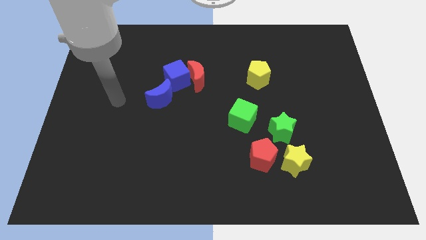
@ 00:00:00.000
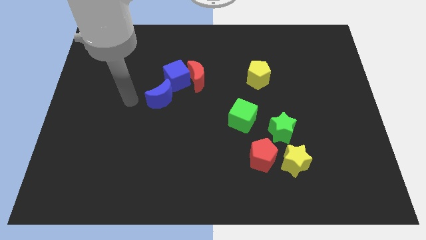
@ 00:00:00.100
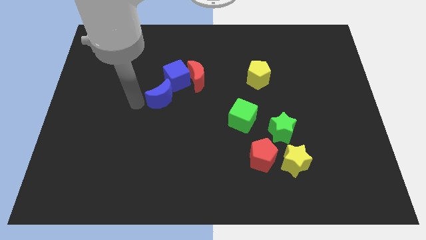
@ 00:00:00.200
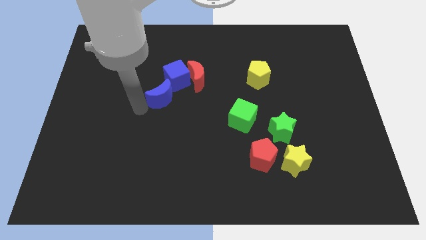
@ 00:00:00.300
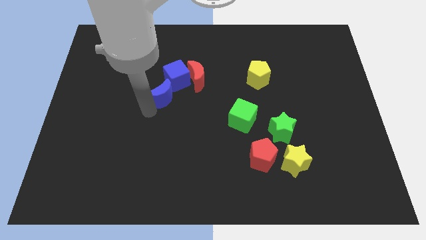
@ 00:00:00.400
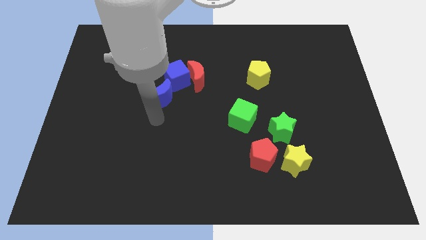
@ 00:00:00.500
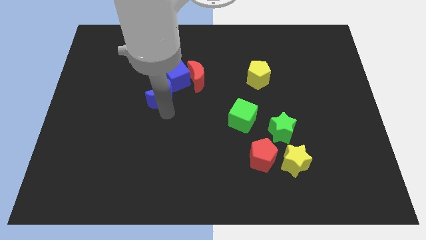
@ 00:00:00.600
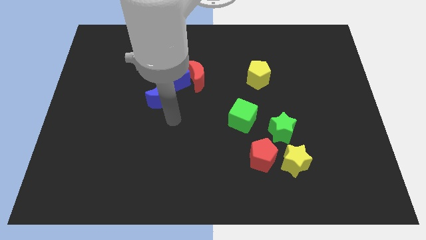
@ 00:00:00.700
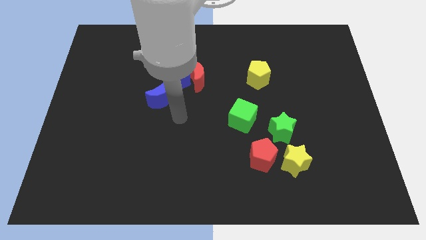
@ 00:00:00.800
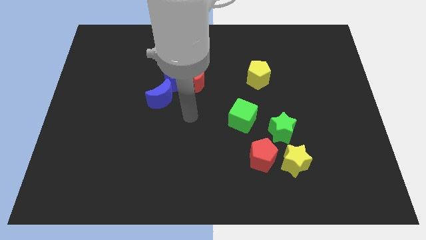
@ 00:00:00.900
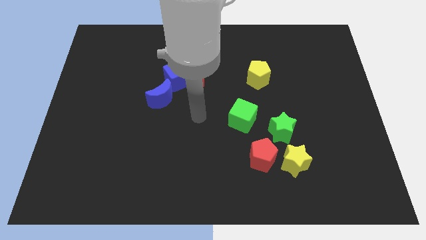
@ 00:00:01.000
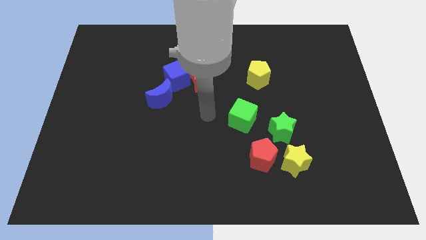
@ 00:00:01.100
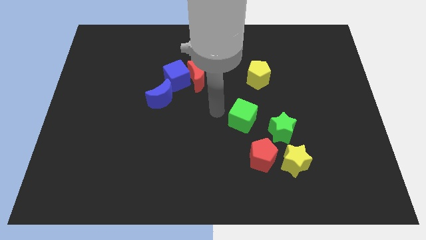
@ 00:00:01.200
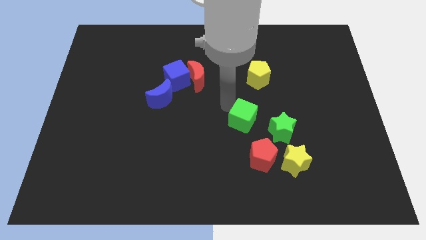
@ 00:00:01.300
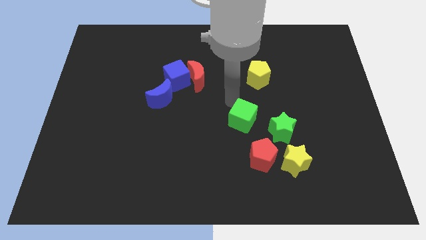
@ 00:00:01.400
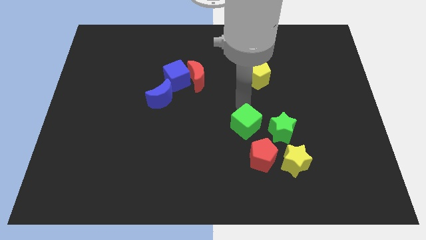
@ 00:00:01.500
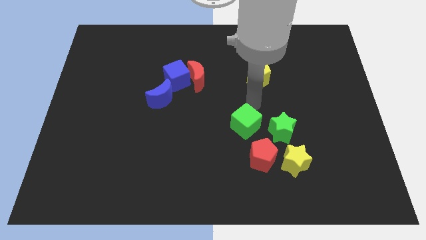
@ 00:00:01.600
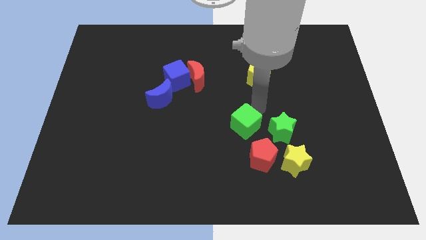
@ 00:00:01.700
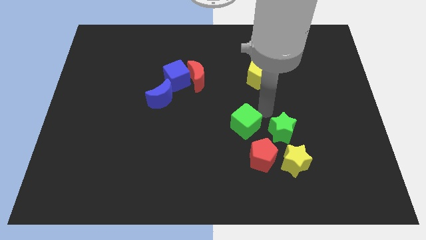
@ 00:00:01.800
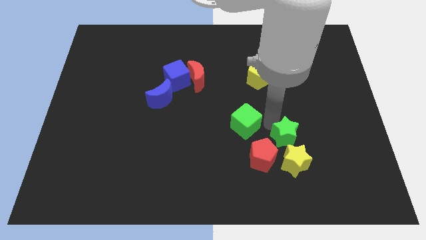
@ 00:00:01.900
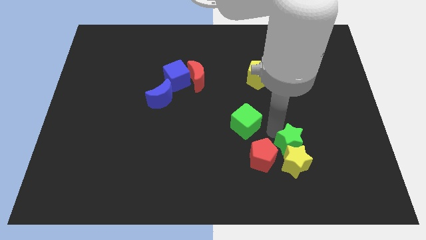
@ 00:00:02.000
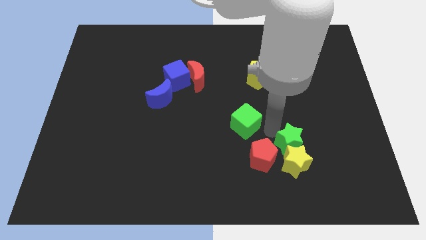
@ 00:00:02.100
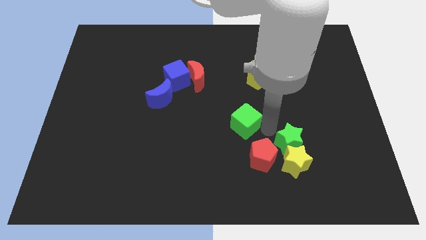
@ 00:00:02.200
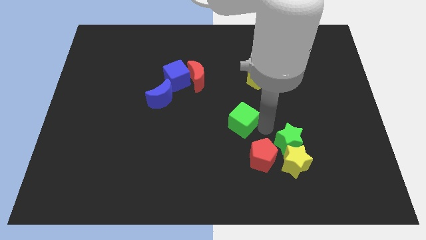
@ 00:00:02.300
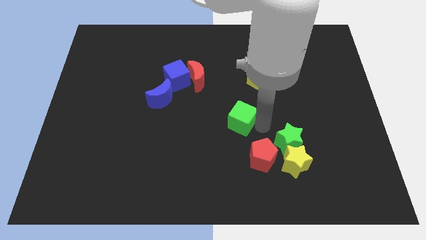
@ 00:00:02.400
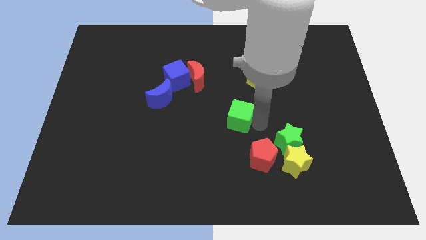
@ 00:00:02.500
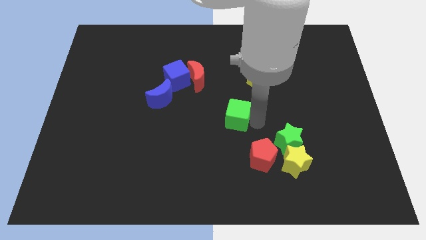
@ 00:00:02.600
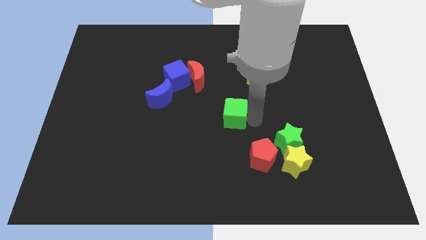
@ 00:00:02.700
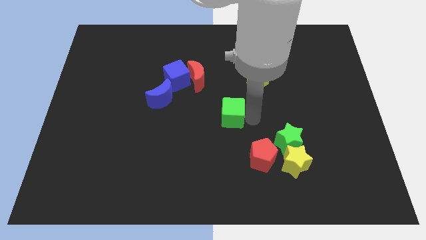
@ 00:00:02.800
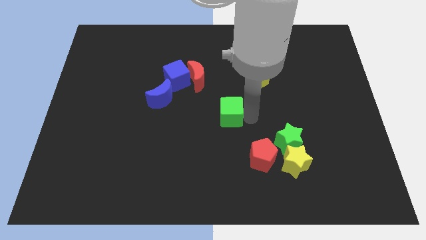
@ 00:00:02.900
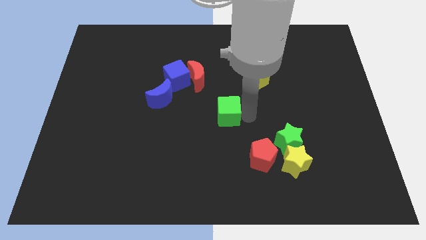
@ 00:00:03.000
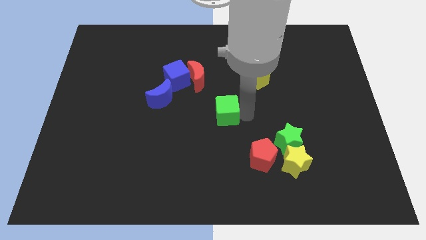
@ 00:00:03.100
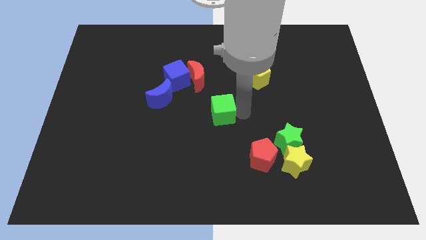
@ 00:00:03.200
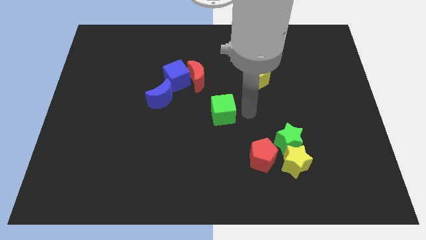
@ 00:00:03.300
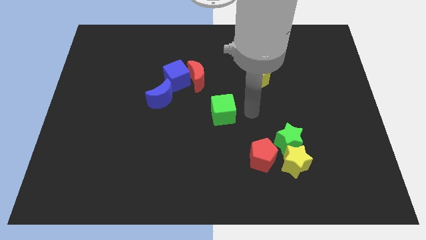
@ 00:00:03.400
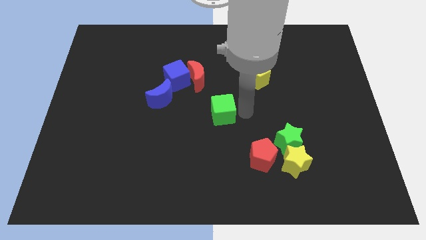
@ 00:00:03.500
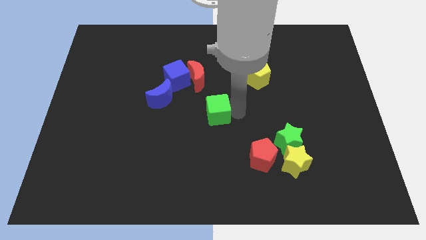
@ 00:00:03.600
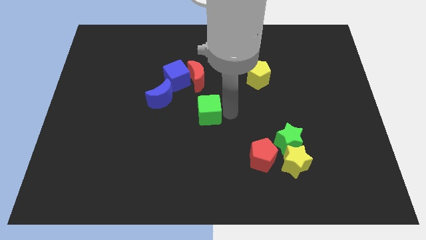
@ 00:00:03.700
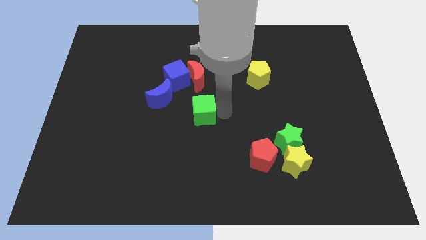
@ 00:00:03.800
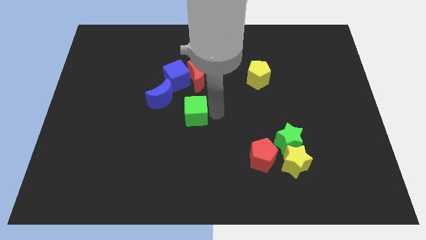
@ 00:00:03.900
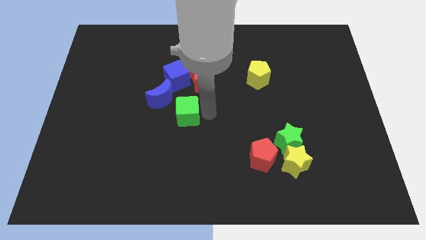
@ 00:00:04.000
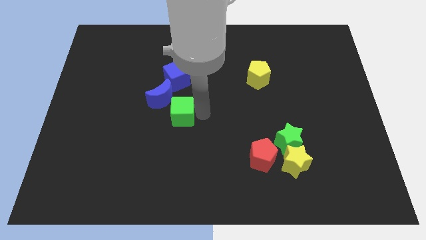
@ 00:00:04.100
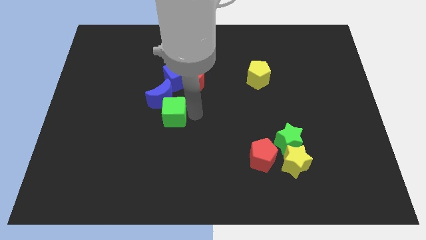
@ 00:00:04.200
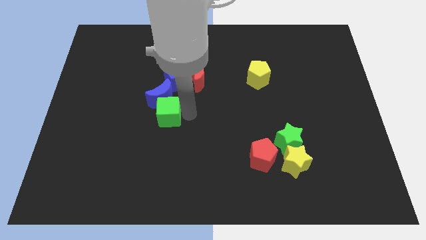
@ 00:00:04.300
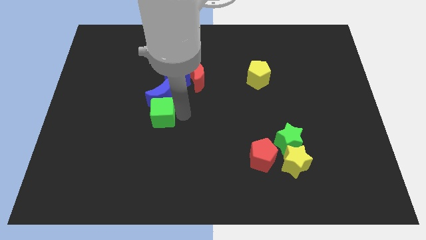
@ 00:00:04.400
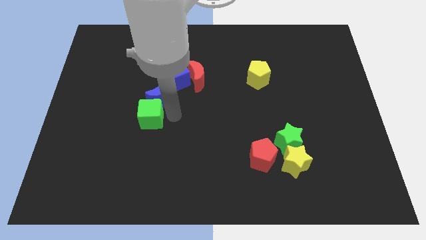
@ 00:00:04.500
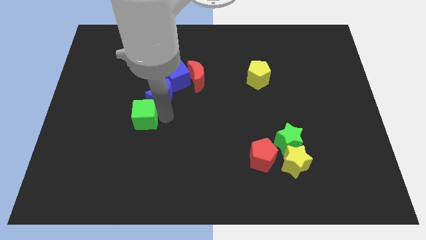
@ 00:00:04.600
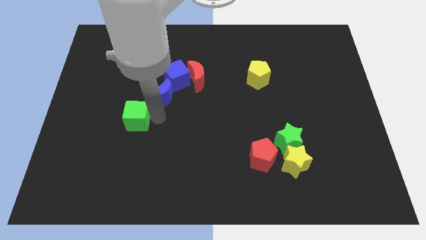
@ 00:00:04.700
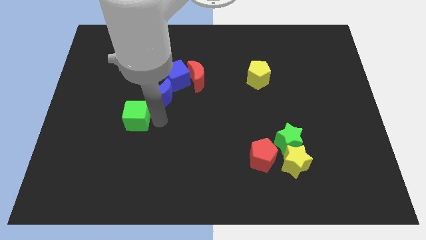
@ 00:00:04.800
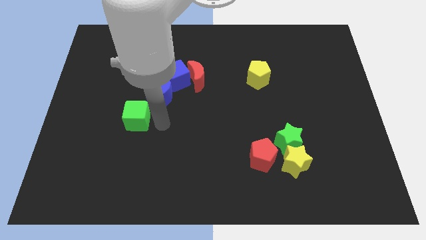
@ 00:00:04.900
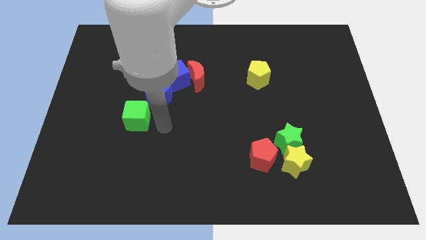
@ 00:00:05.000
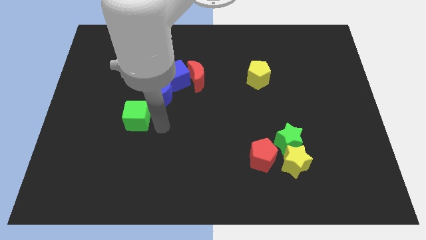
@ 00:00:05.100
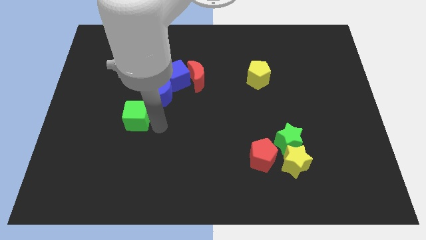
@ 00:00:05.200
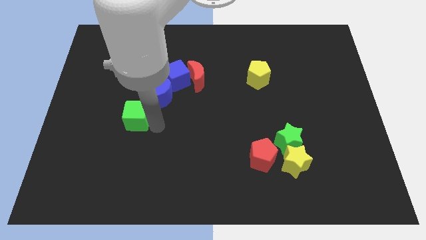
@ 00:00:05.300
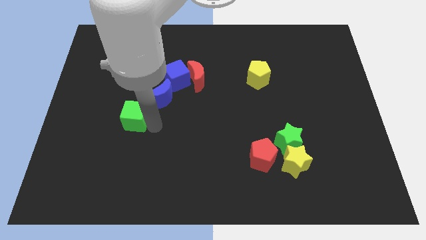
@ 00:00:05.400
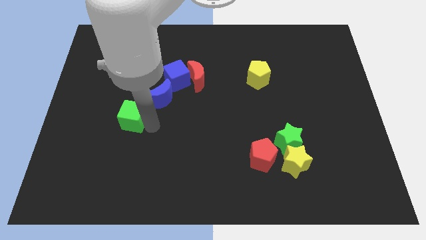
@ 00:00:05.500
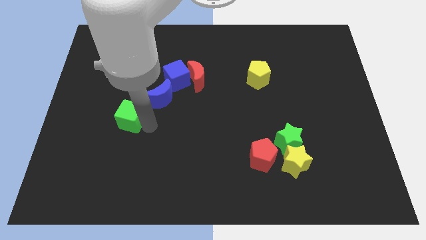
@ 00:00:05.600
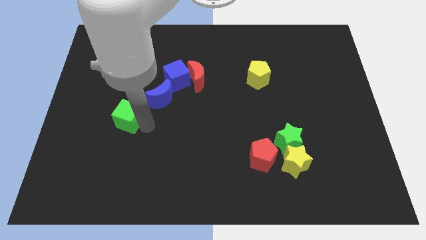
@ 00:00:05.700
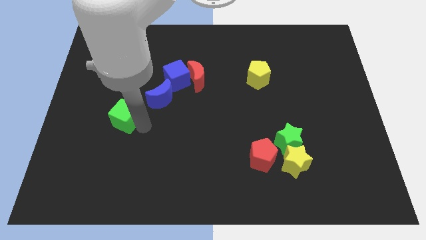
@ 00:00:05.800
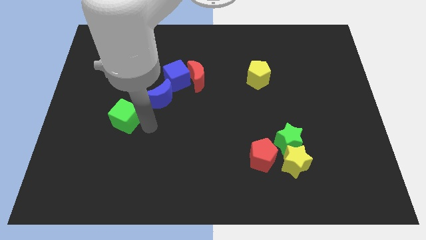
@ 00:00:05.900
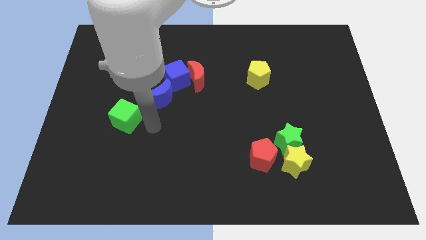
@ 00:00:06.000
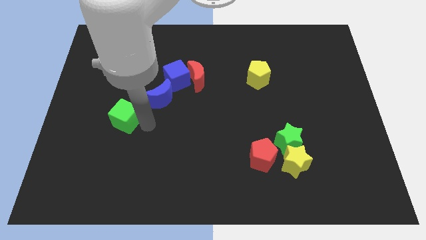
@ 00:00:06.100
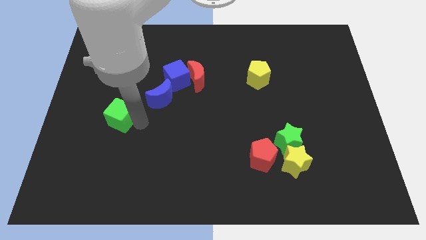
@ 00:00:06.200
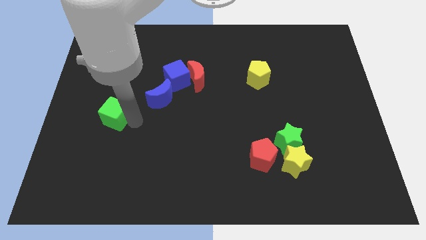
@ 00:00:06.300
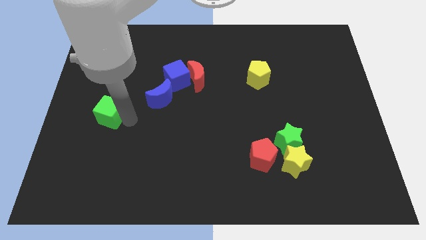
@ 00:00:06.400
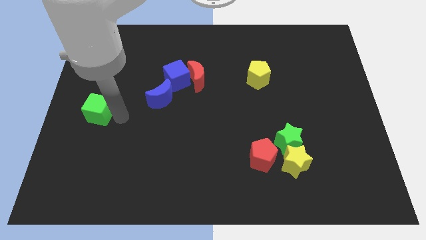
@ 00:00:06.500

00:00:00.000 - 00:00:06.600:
slide the green cube to the left side of the board
